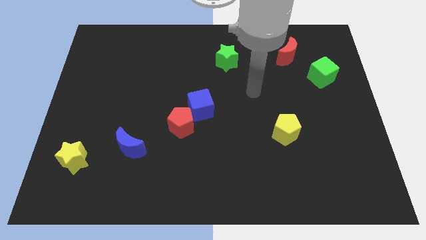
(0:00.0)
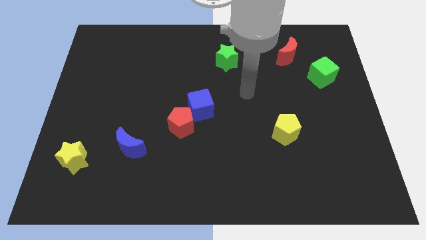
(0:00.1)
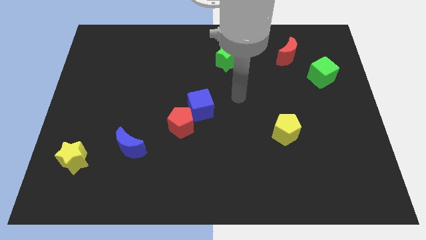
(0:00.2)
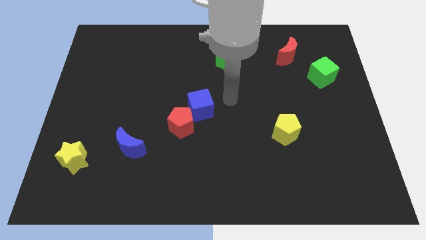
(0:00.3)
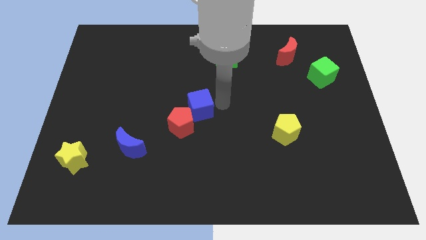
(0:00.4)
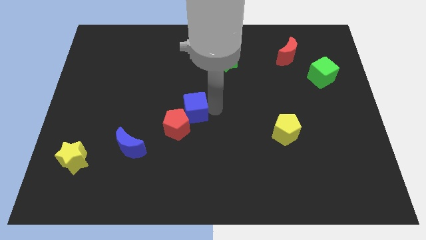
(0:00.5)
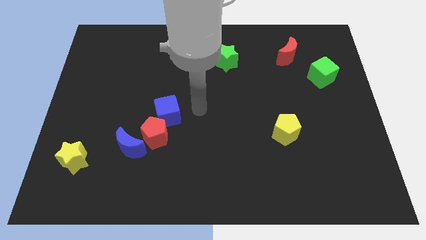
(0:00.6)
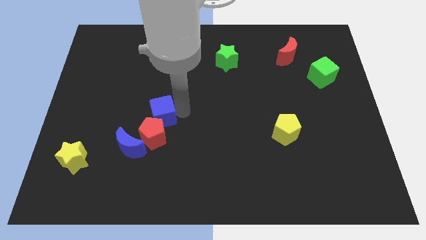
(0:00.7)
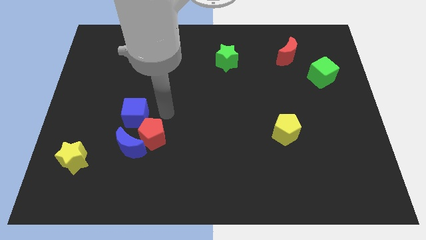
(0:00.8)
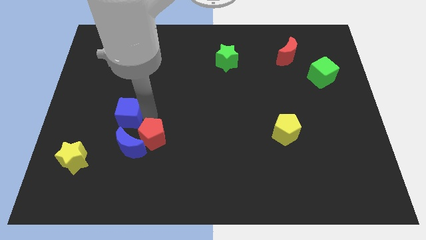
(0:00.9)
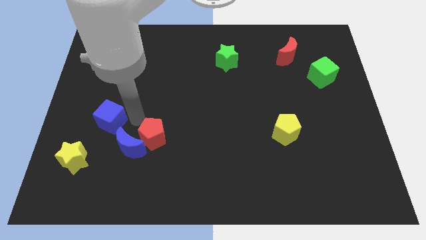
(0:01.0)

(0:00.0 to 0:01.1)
separate the red pentagon from the blue cube

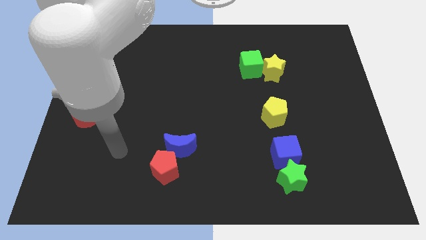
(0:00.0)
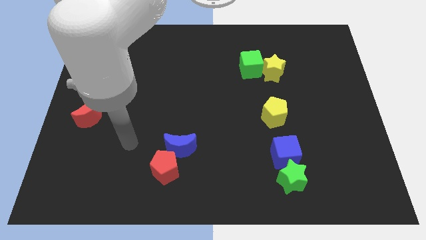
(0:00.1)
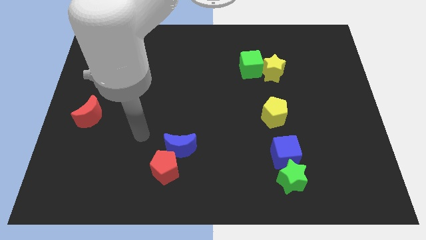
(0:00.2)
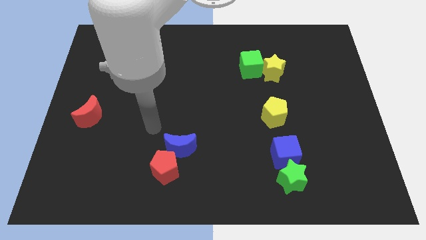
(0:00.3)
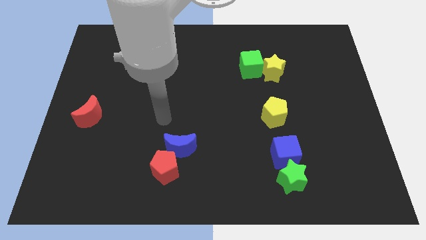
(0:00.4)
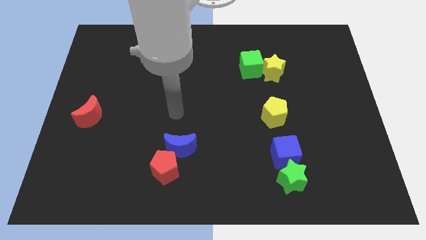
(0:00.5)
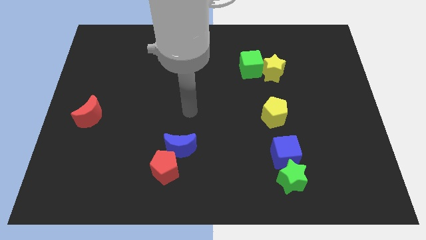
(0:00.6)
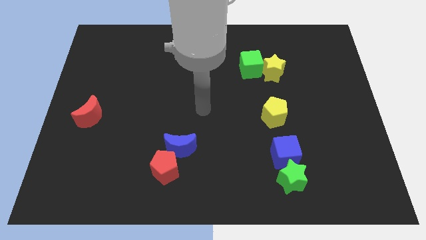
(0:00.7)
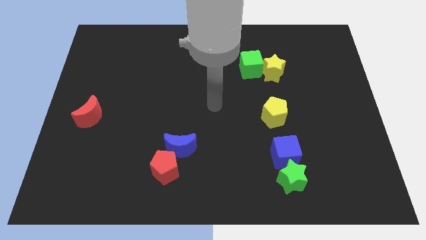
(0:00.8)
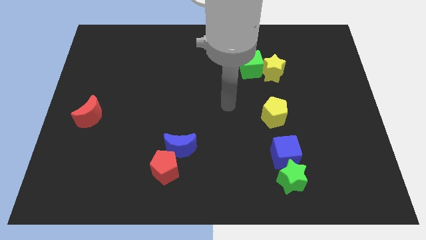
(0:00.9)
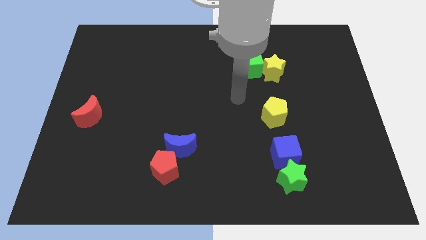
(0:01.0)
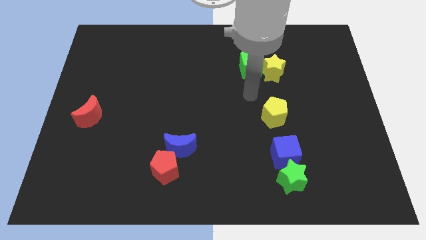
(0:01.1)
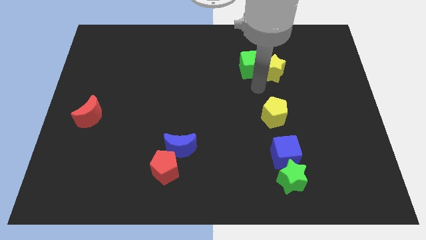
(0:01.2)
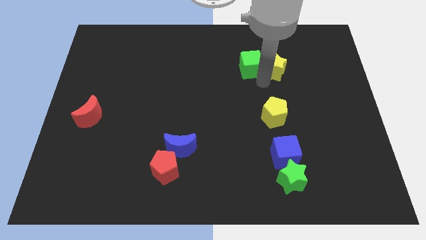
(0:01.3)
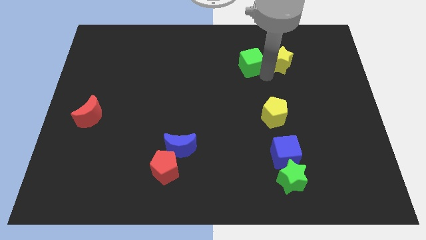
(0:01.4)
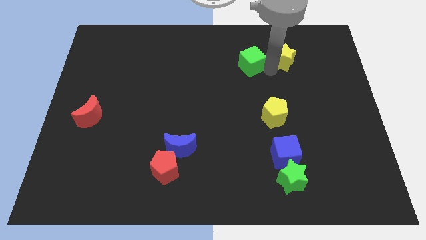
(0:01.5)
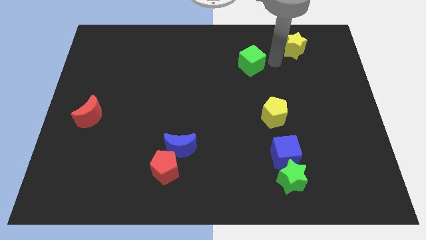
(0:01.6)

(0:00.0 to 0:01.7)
move the green cube away from the yellow star

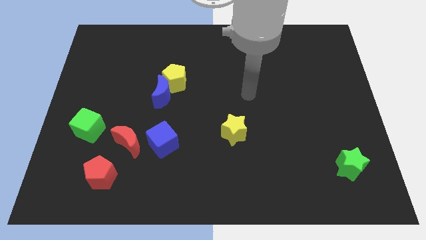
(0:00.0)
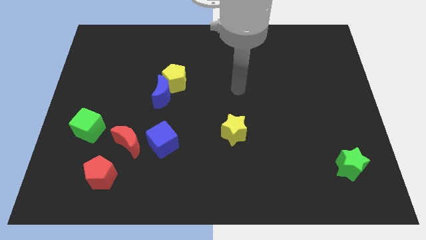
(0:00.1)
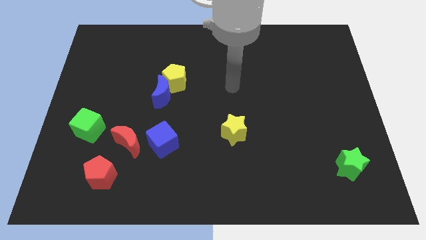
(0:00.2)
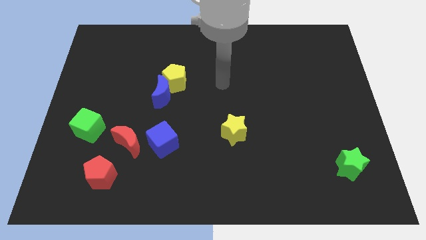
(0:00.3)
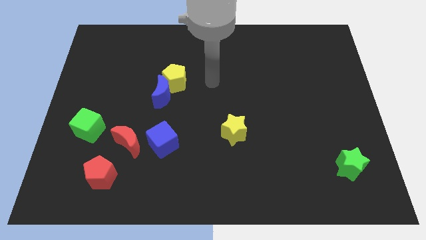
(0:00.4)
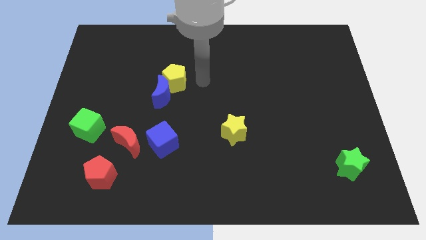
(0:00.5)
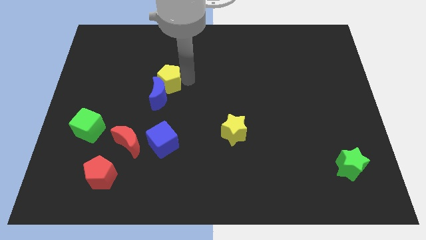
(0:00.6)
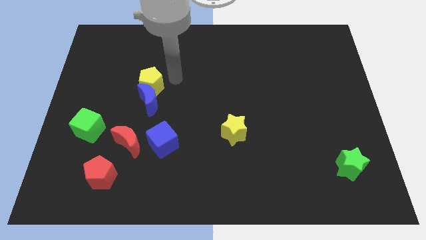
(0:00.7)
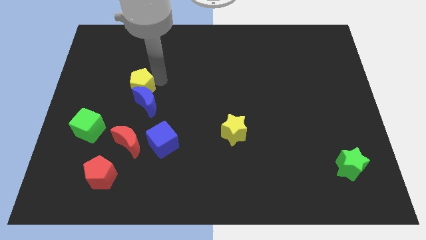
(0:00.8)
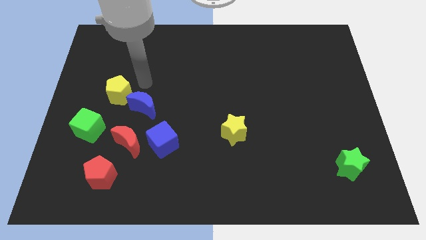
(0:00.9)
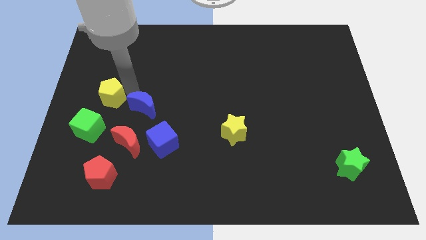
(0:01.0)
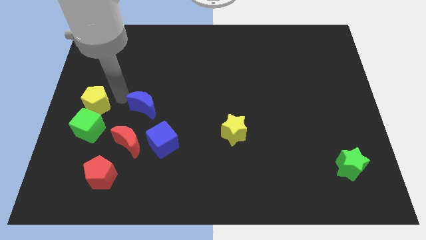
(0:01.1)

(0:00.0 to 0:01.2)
separate the blue moon from the yellow pentagon

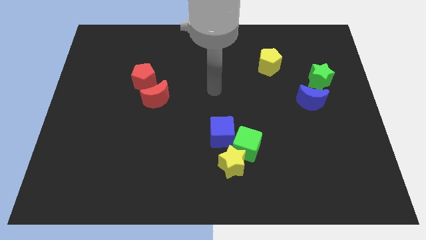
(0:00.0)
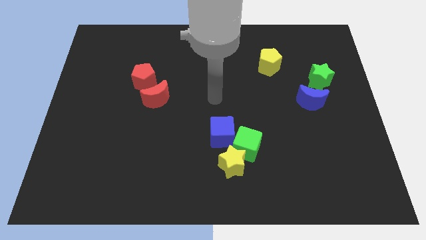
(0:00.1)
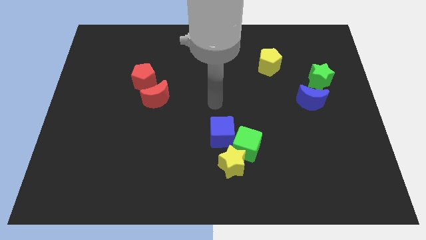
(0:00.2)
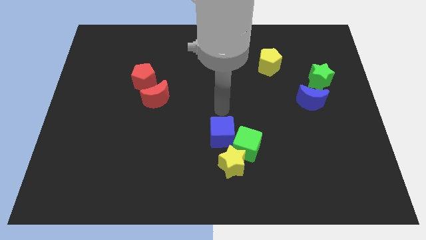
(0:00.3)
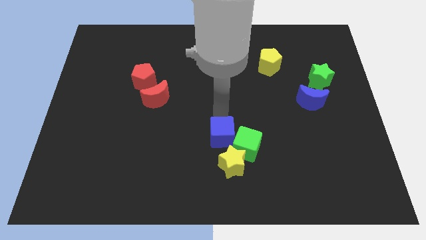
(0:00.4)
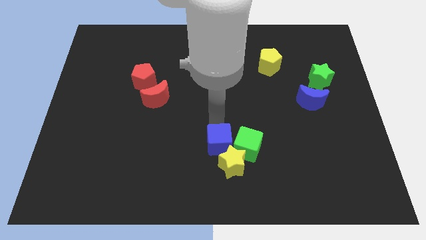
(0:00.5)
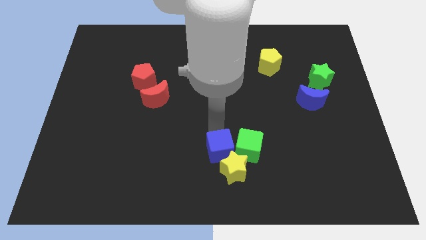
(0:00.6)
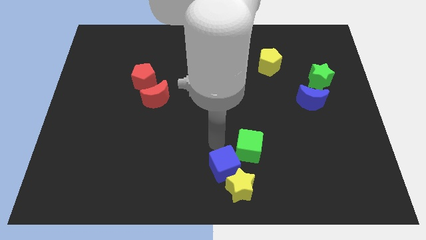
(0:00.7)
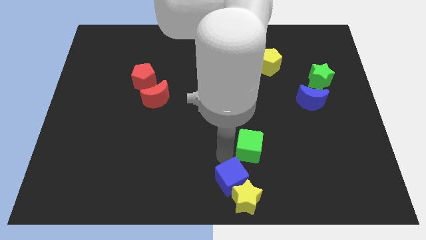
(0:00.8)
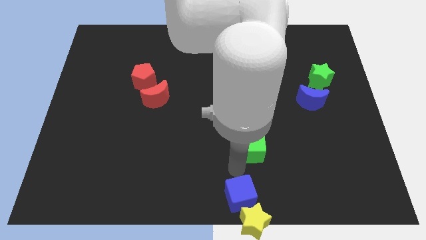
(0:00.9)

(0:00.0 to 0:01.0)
move the green cube away from the yellow star and blue cube

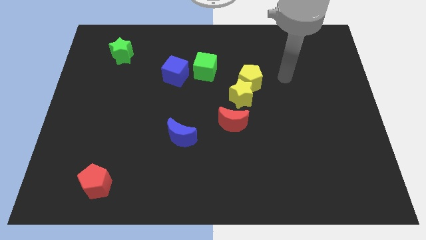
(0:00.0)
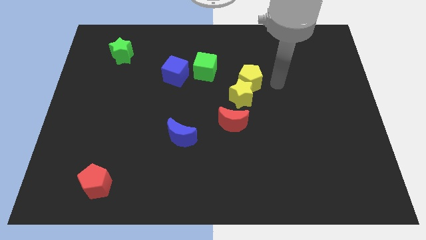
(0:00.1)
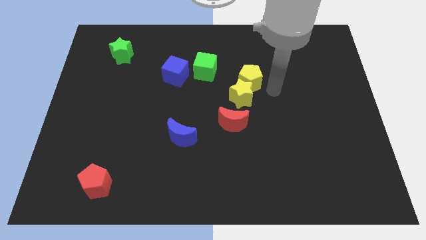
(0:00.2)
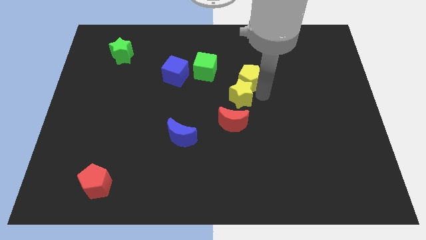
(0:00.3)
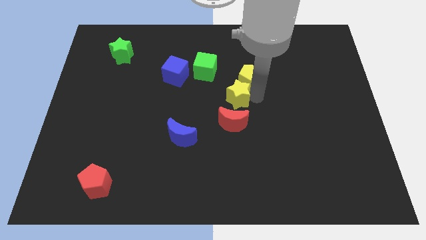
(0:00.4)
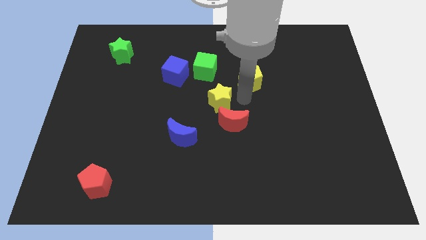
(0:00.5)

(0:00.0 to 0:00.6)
pull the yellow pentagon apart from the yellow star

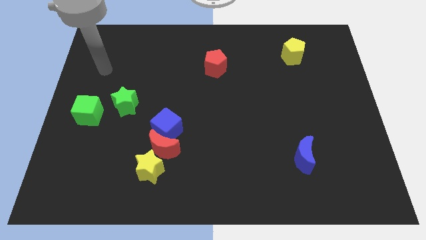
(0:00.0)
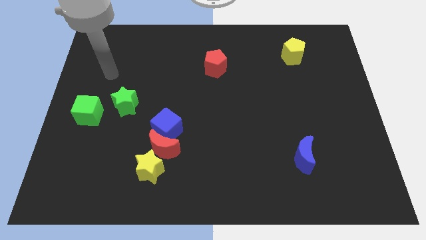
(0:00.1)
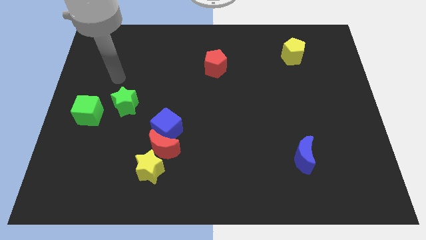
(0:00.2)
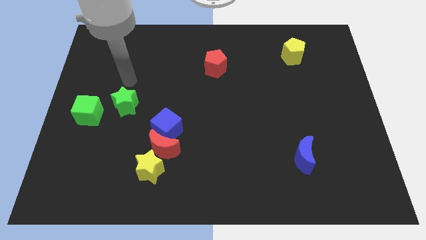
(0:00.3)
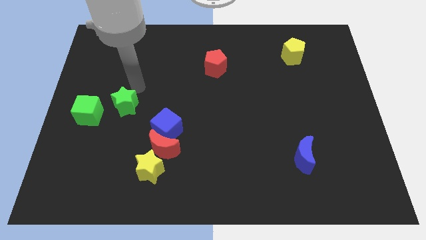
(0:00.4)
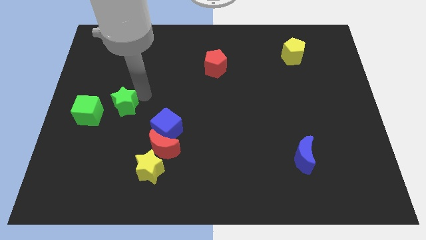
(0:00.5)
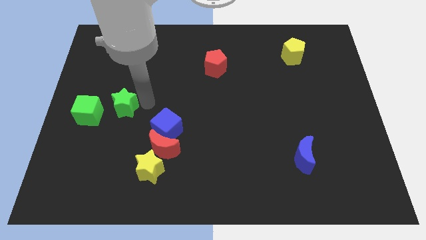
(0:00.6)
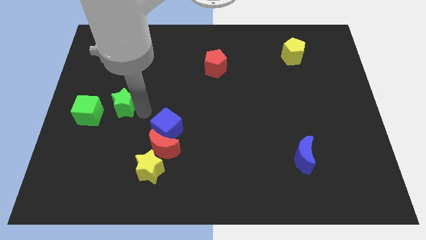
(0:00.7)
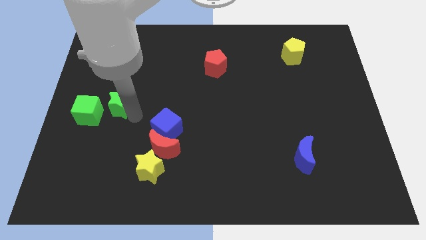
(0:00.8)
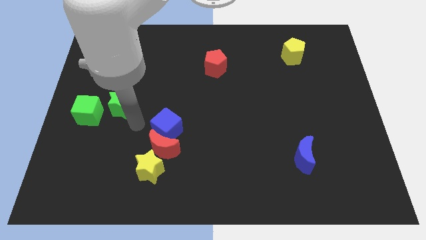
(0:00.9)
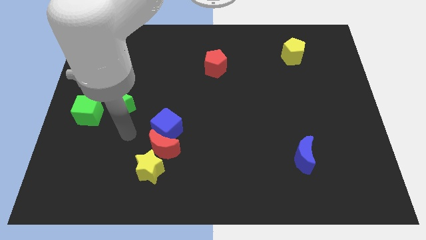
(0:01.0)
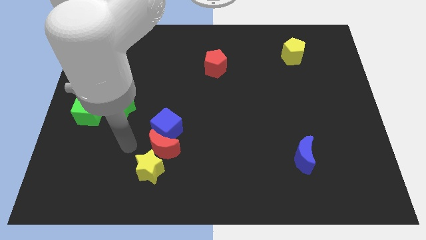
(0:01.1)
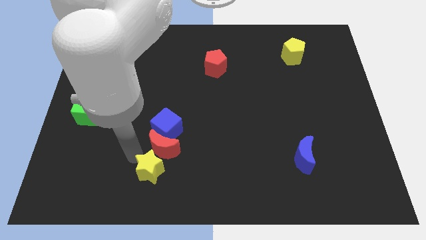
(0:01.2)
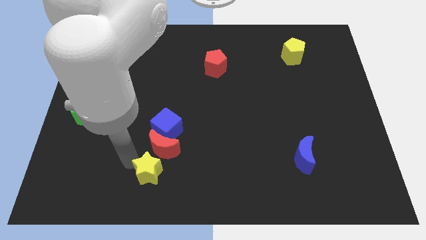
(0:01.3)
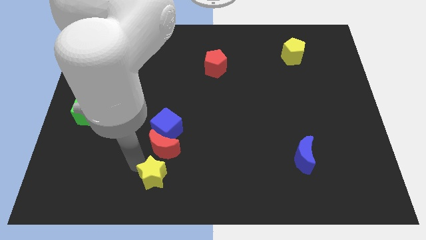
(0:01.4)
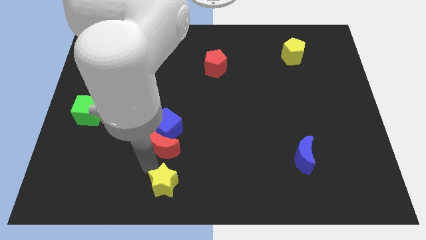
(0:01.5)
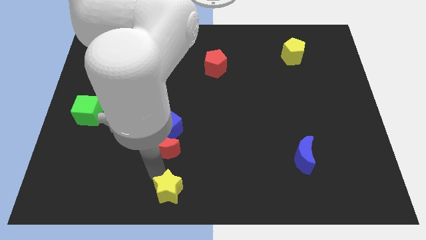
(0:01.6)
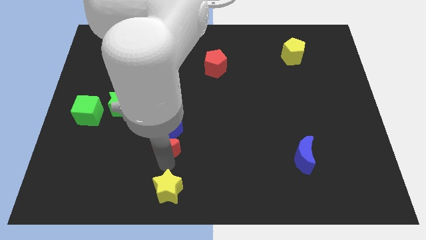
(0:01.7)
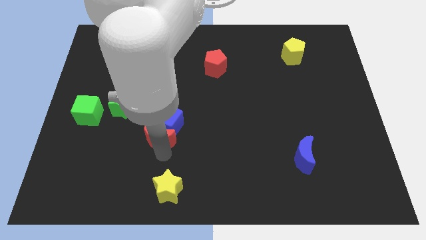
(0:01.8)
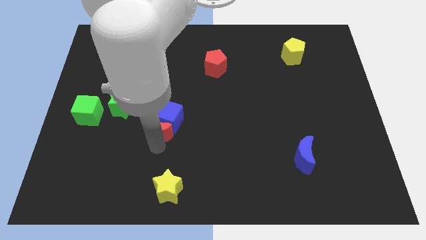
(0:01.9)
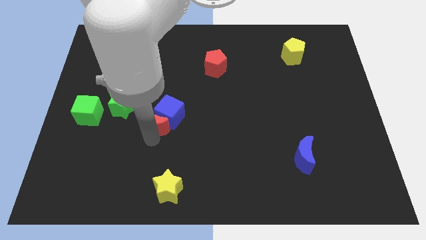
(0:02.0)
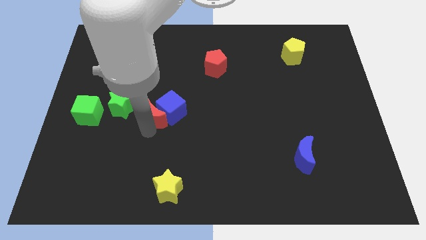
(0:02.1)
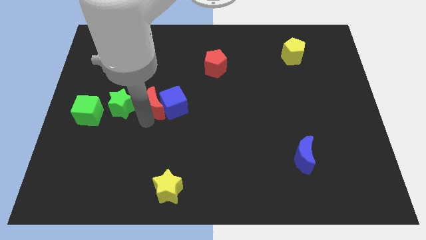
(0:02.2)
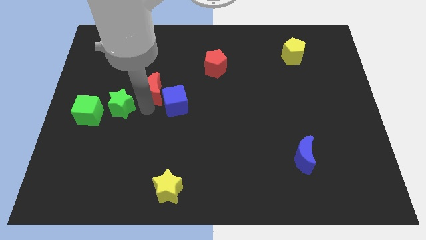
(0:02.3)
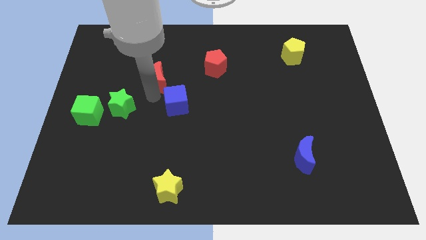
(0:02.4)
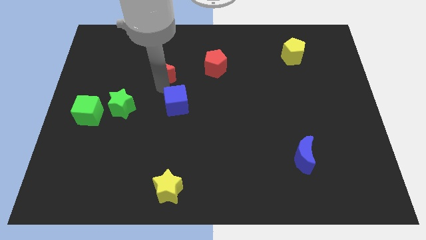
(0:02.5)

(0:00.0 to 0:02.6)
separate the blue cube from the red moon

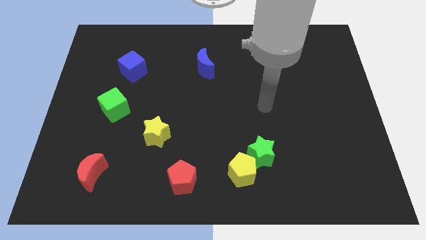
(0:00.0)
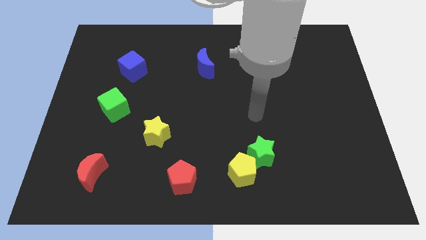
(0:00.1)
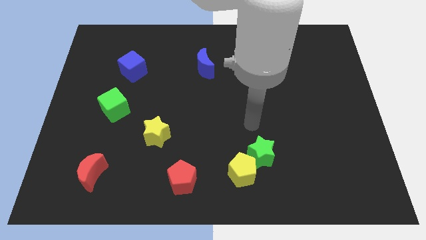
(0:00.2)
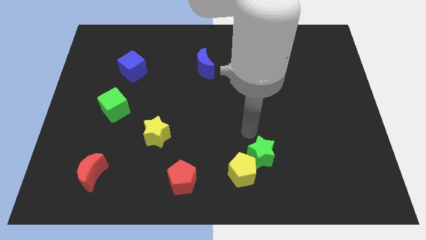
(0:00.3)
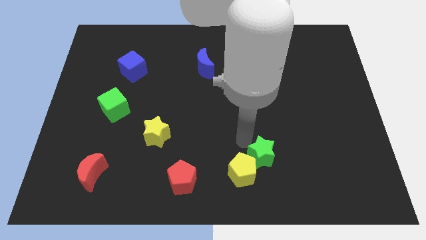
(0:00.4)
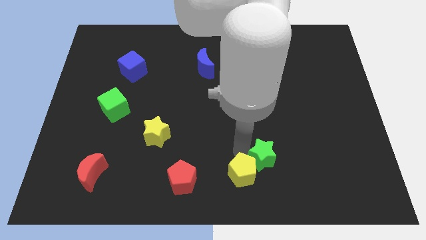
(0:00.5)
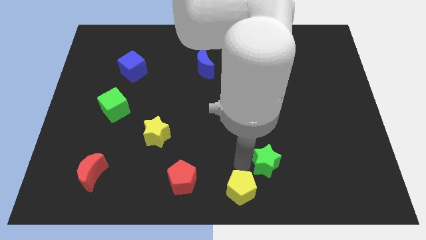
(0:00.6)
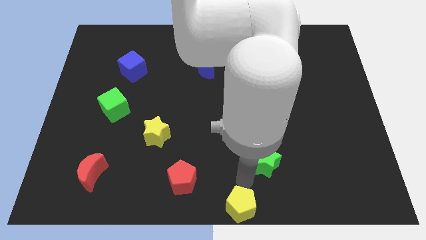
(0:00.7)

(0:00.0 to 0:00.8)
separate the green star from the yellow pentagon

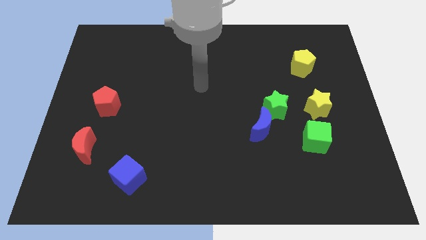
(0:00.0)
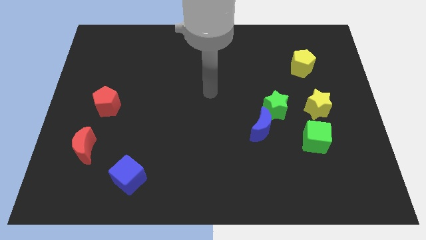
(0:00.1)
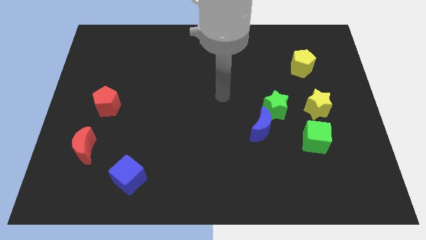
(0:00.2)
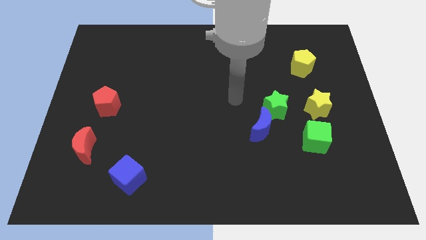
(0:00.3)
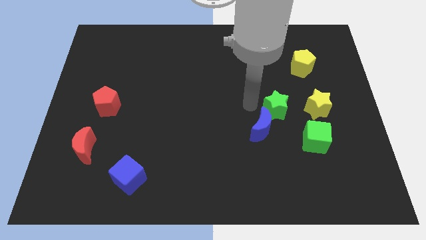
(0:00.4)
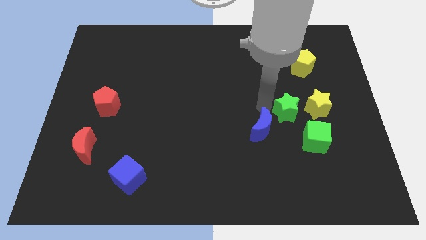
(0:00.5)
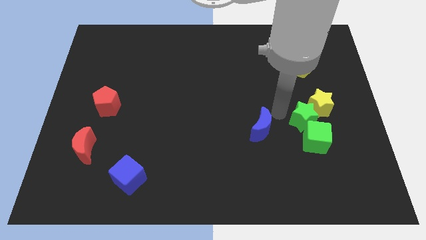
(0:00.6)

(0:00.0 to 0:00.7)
separate the blue moon from the green star
